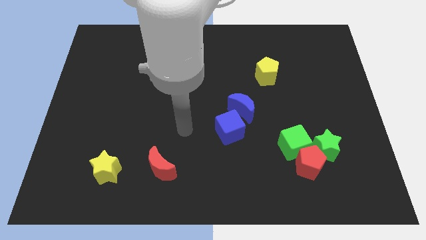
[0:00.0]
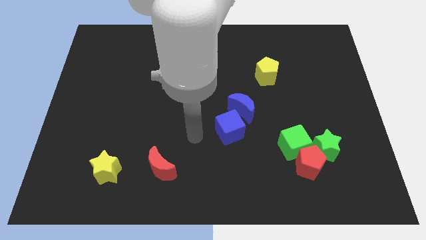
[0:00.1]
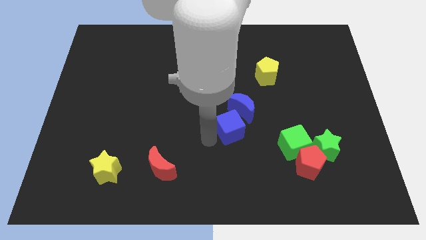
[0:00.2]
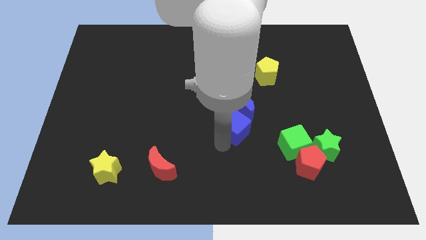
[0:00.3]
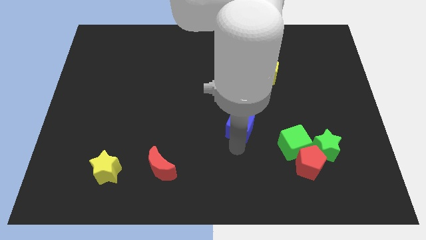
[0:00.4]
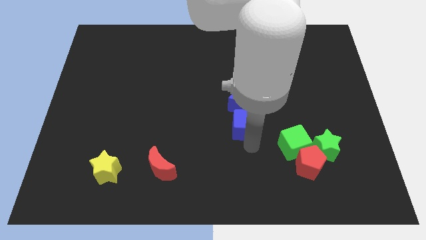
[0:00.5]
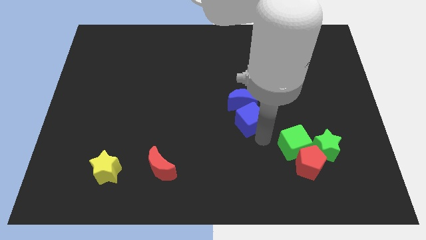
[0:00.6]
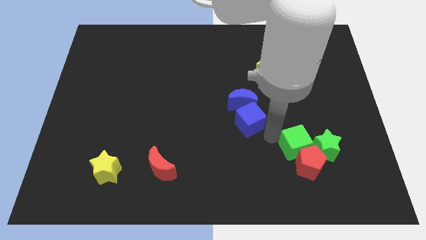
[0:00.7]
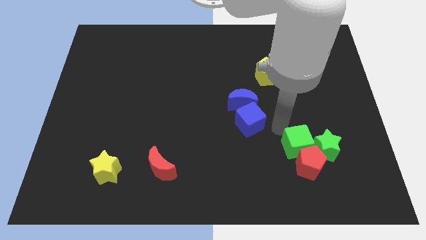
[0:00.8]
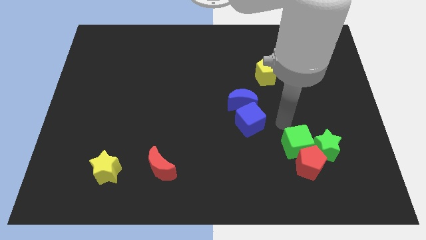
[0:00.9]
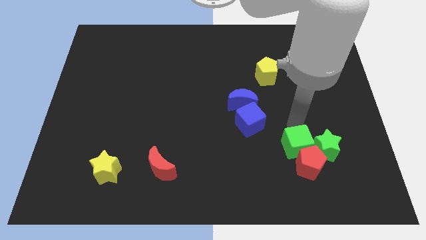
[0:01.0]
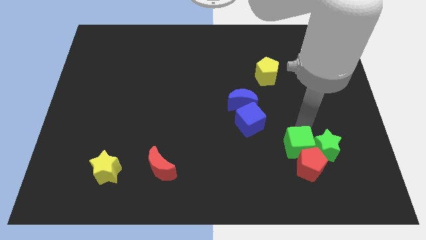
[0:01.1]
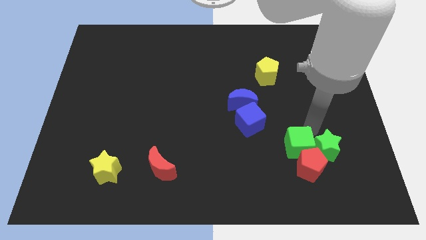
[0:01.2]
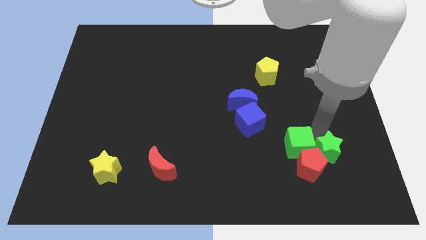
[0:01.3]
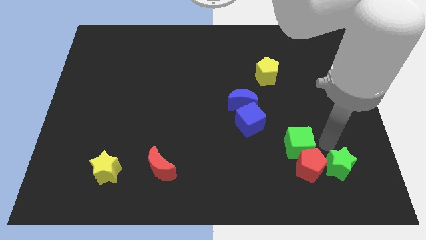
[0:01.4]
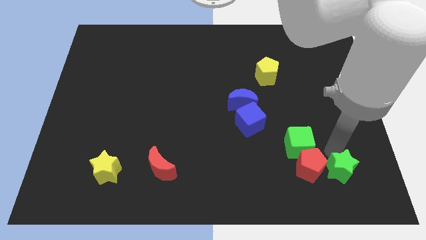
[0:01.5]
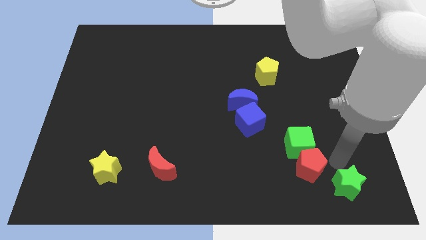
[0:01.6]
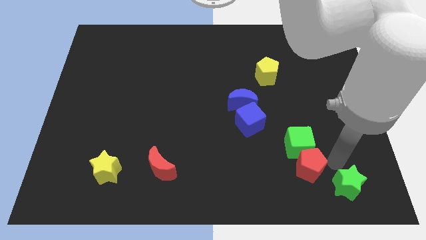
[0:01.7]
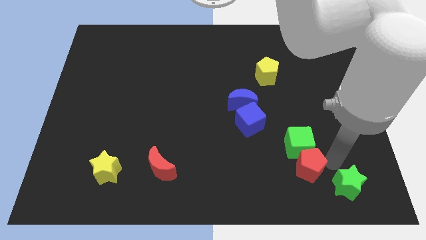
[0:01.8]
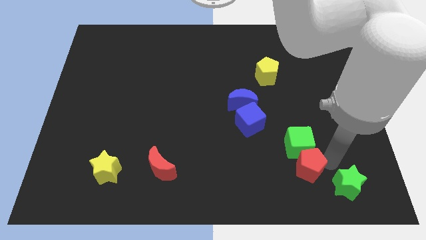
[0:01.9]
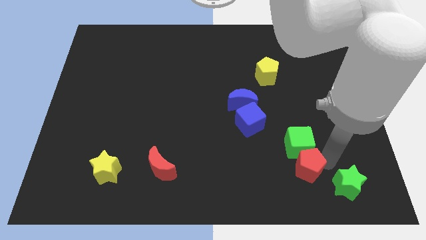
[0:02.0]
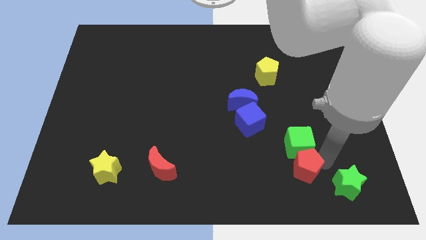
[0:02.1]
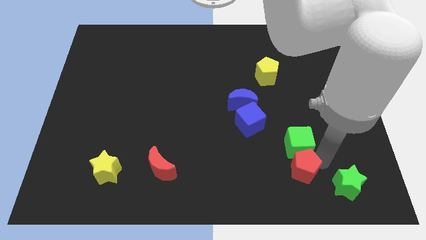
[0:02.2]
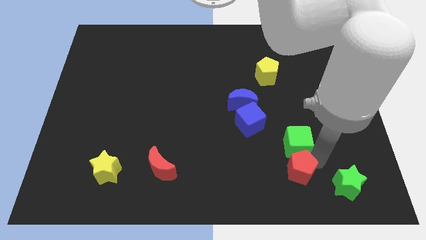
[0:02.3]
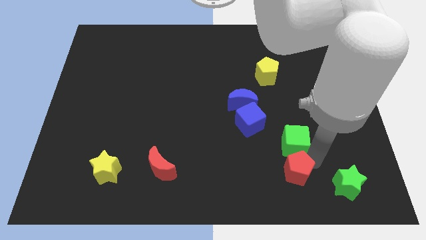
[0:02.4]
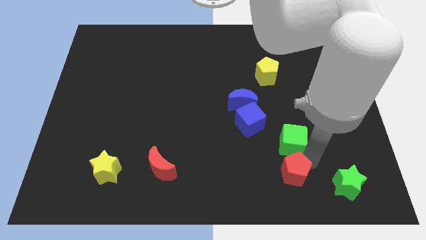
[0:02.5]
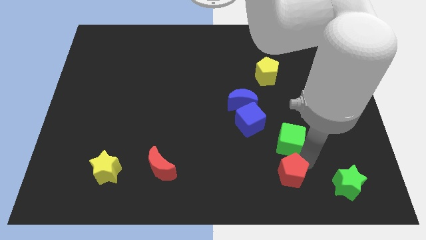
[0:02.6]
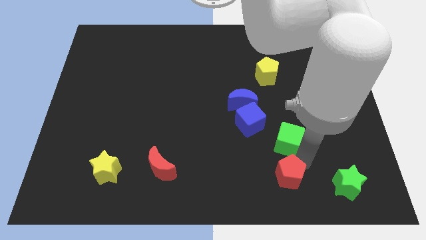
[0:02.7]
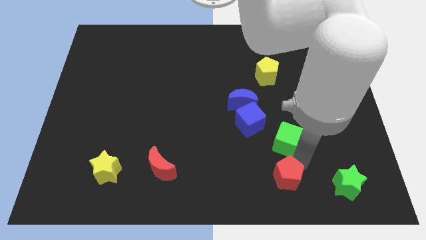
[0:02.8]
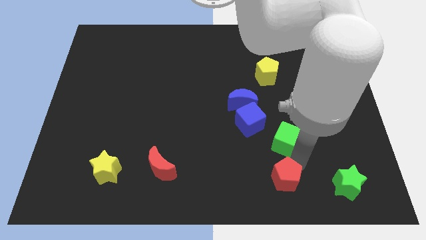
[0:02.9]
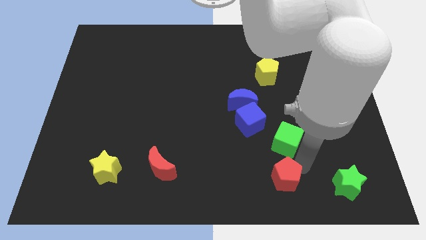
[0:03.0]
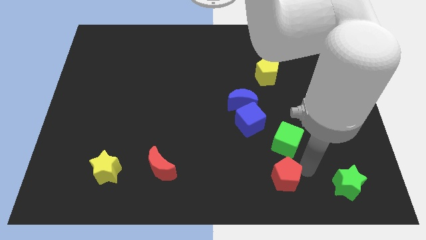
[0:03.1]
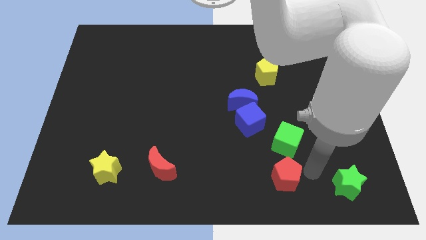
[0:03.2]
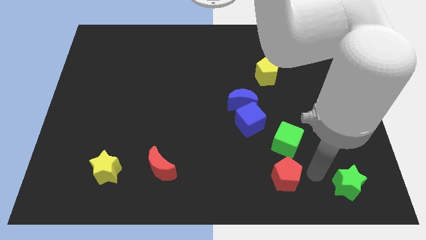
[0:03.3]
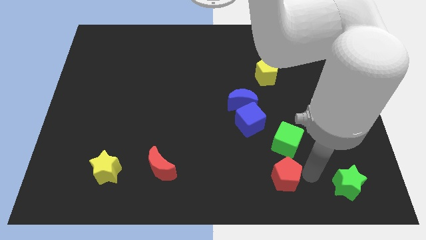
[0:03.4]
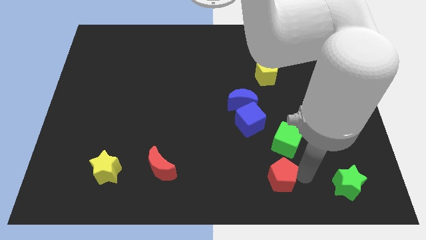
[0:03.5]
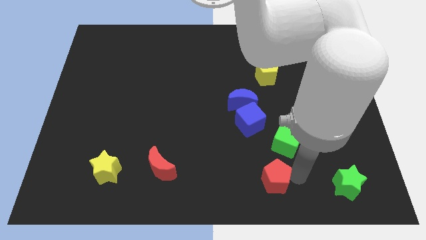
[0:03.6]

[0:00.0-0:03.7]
slightly move the red pentagon left

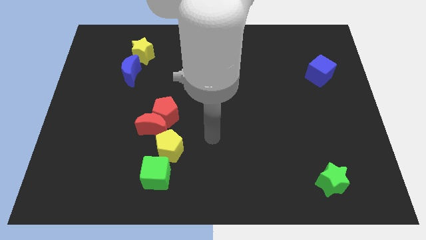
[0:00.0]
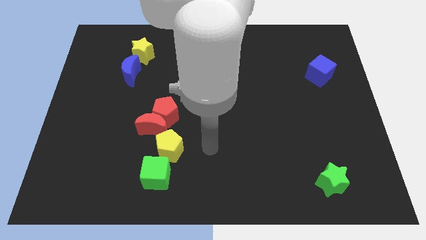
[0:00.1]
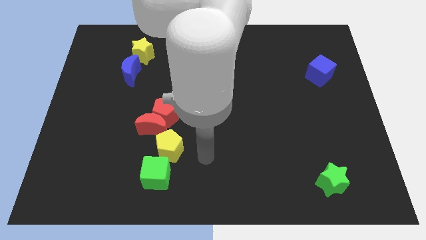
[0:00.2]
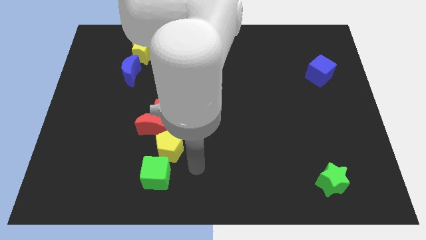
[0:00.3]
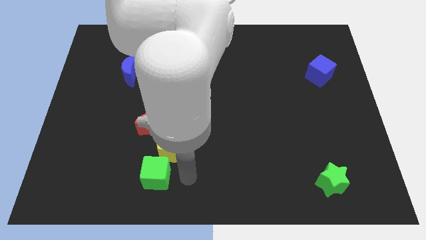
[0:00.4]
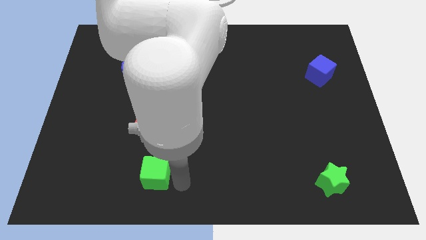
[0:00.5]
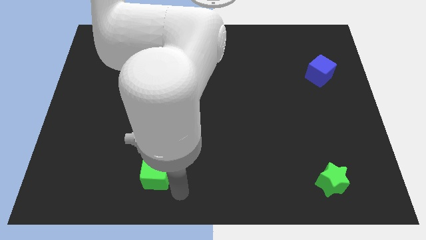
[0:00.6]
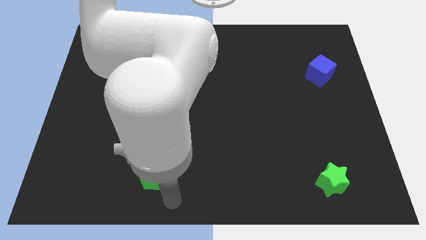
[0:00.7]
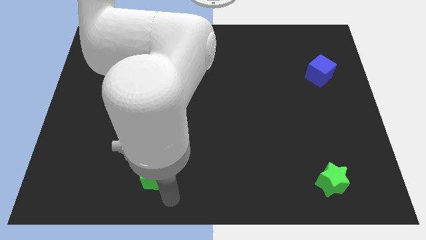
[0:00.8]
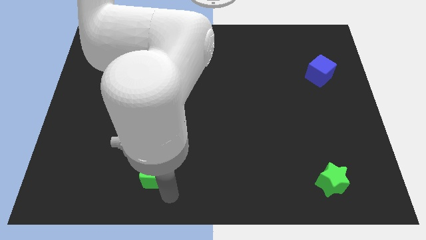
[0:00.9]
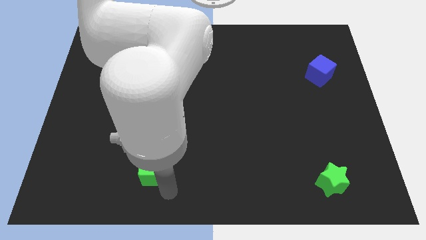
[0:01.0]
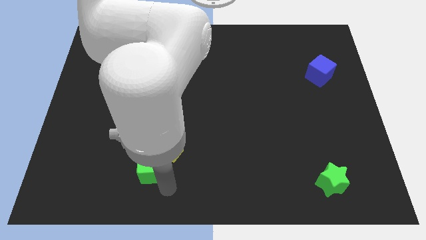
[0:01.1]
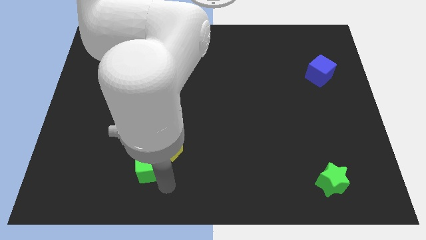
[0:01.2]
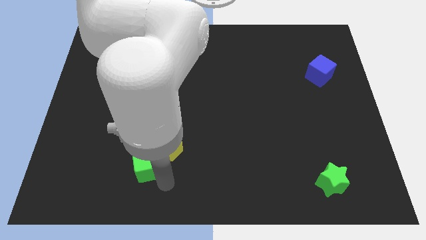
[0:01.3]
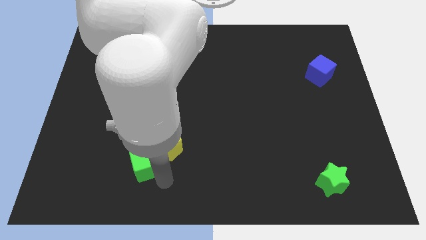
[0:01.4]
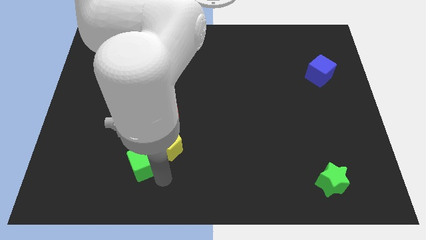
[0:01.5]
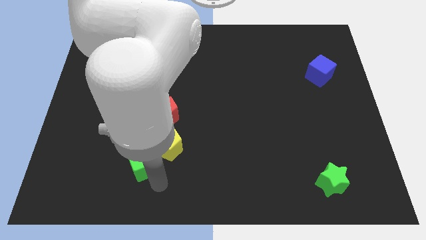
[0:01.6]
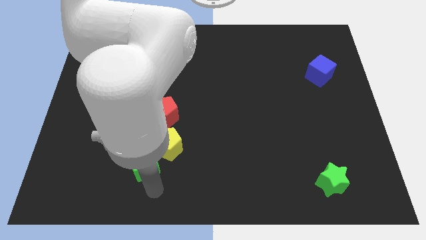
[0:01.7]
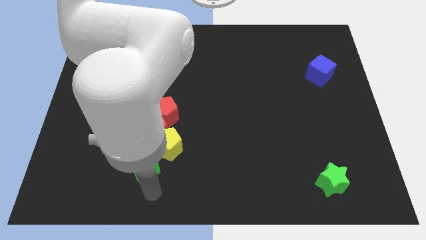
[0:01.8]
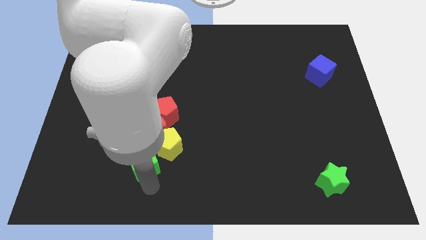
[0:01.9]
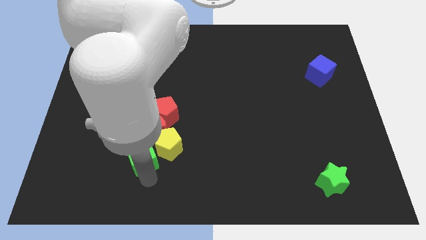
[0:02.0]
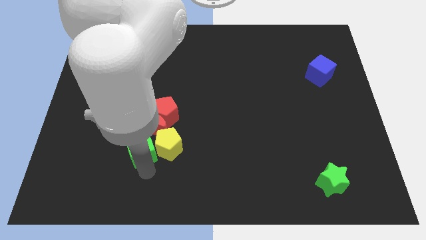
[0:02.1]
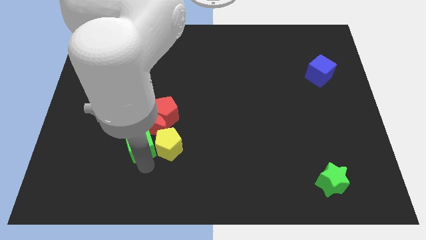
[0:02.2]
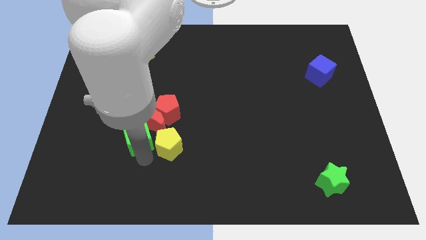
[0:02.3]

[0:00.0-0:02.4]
push the green cube up somewhat

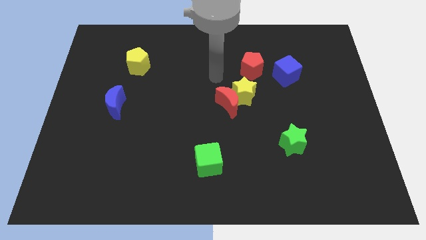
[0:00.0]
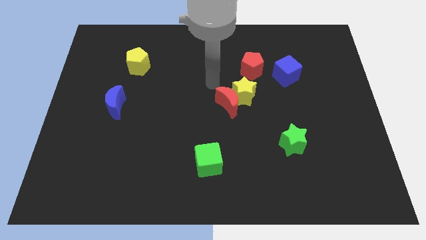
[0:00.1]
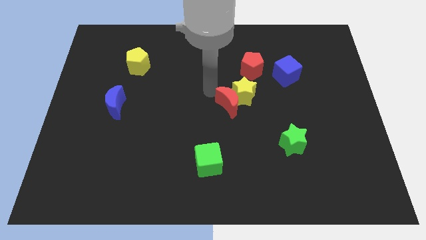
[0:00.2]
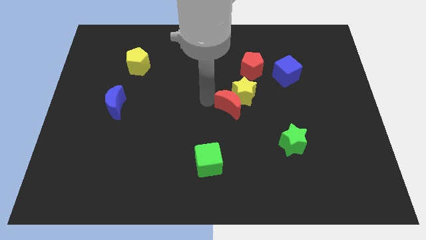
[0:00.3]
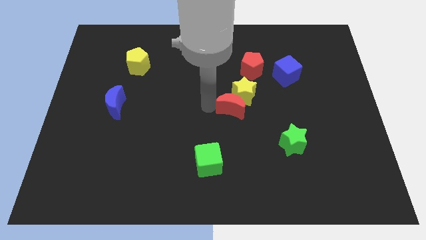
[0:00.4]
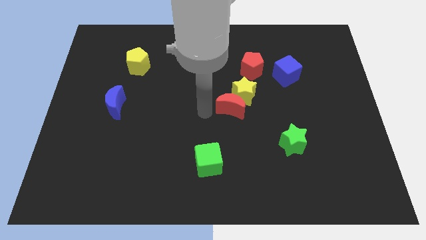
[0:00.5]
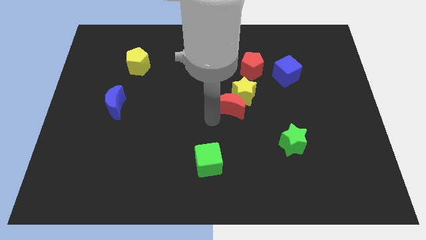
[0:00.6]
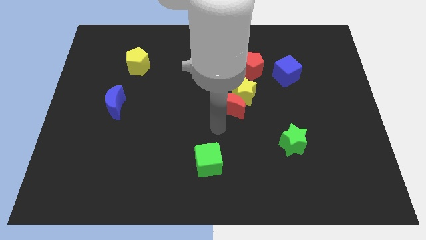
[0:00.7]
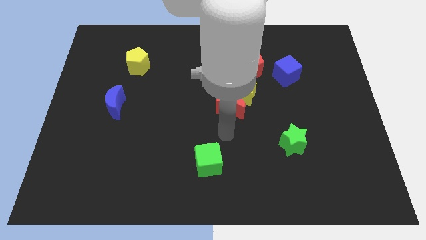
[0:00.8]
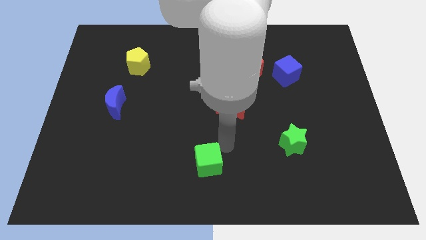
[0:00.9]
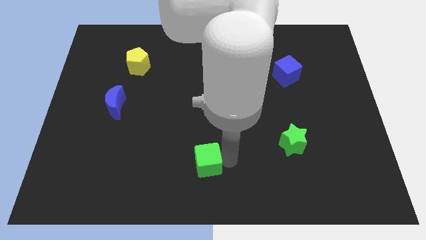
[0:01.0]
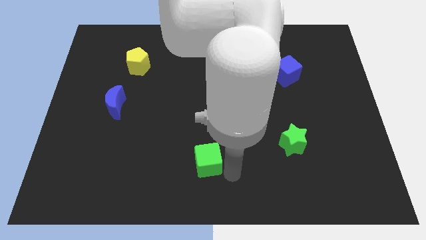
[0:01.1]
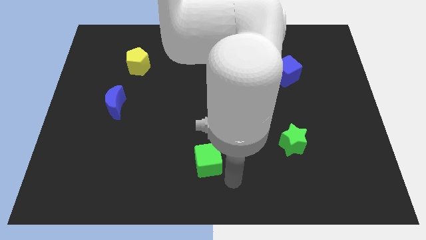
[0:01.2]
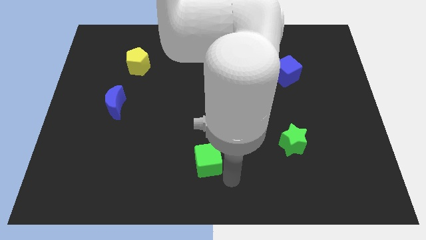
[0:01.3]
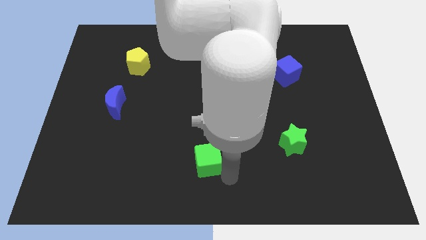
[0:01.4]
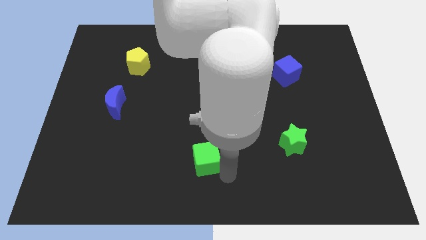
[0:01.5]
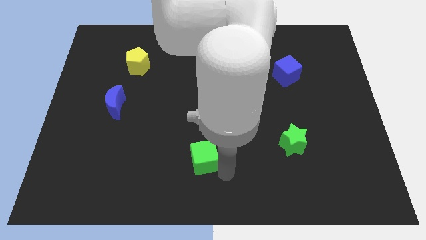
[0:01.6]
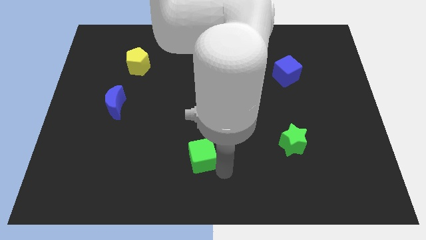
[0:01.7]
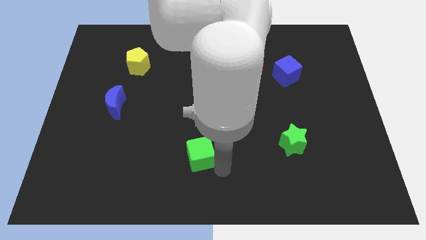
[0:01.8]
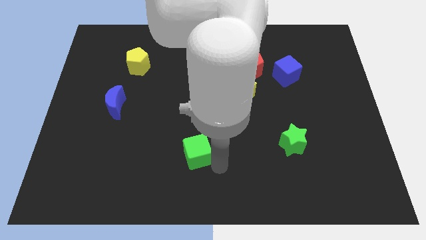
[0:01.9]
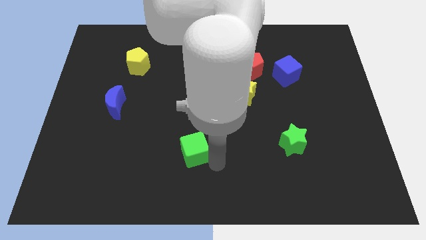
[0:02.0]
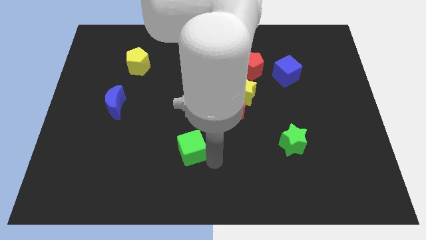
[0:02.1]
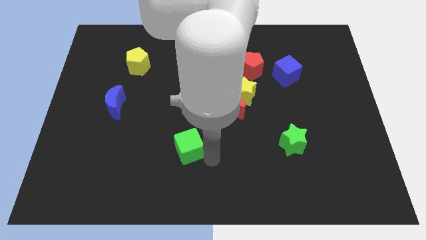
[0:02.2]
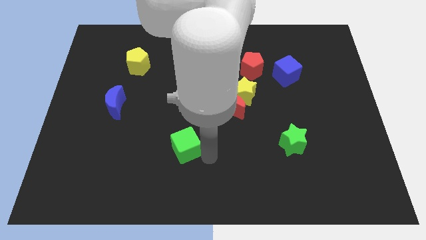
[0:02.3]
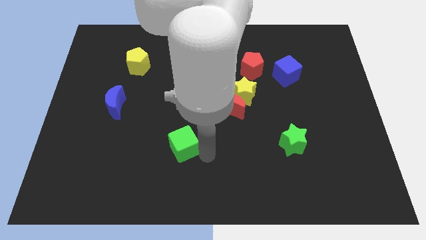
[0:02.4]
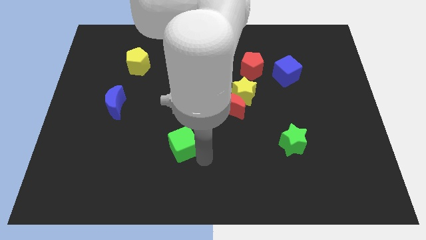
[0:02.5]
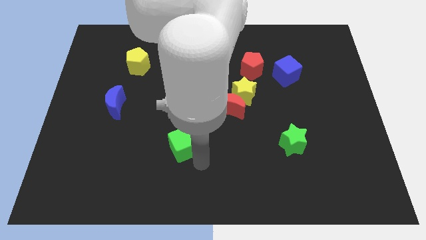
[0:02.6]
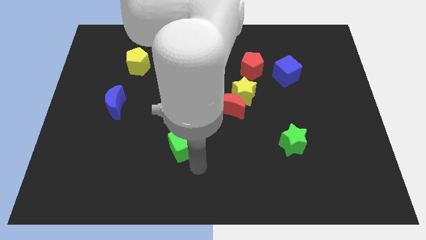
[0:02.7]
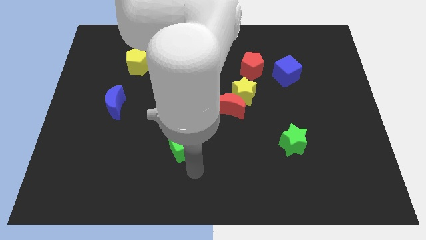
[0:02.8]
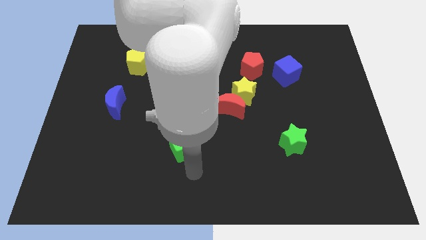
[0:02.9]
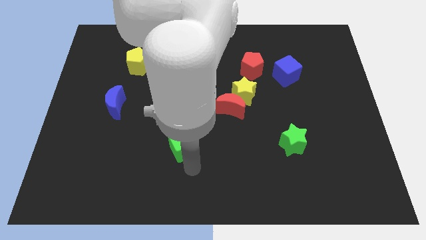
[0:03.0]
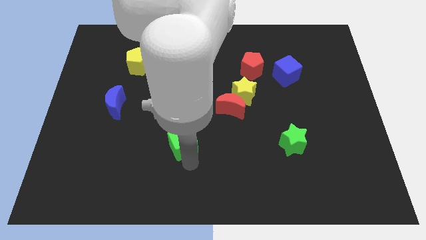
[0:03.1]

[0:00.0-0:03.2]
move the green cube slightly upwards and then left
